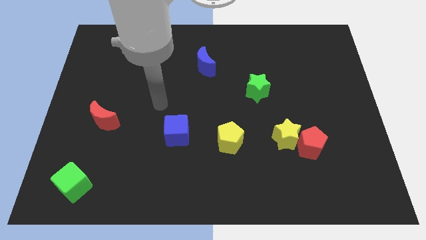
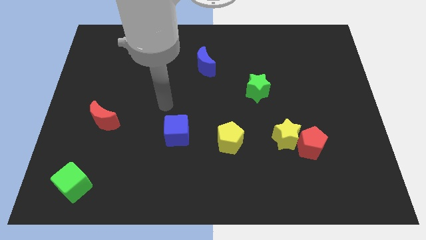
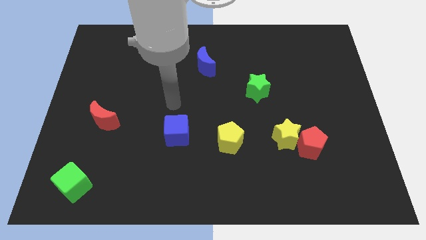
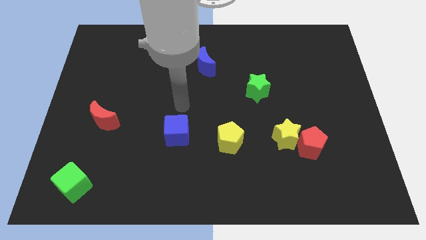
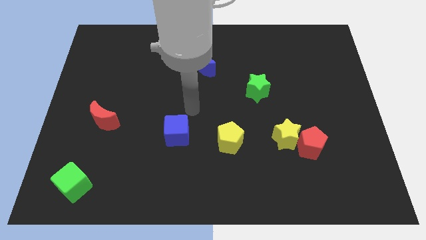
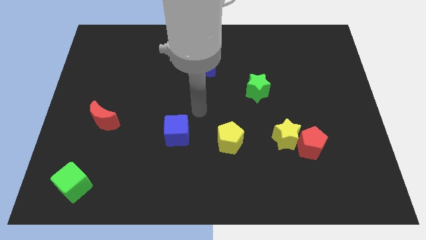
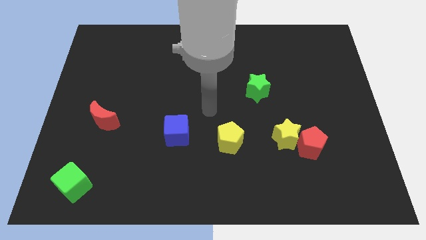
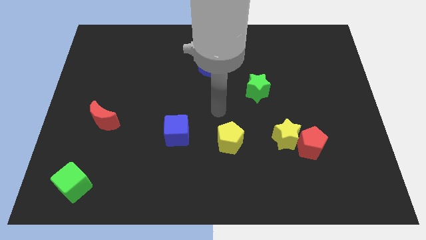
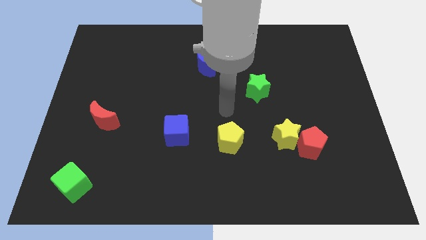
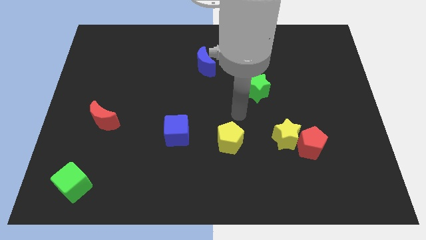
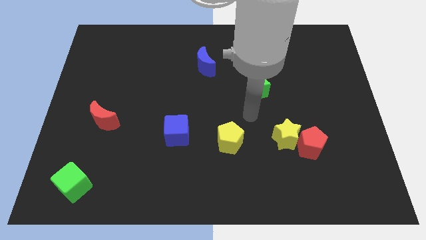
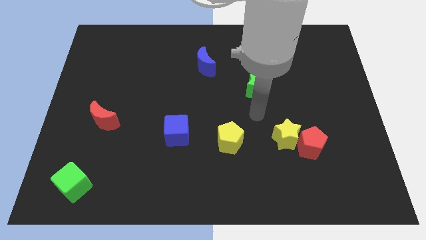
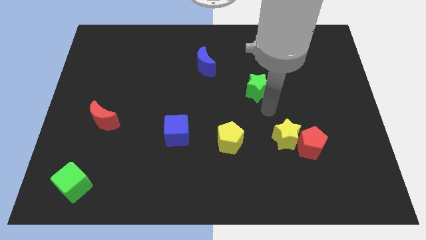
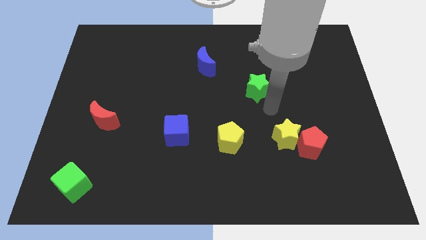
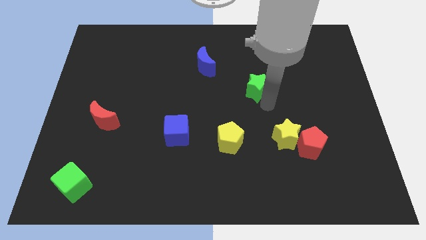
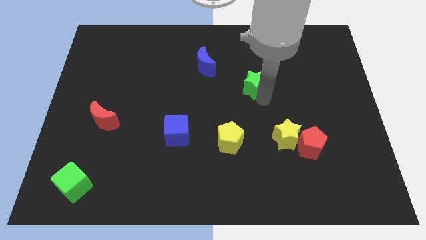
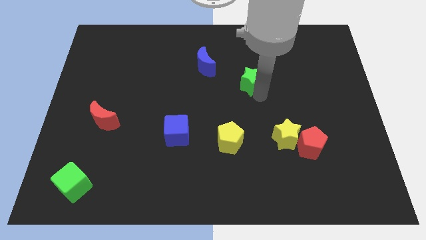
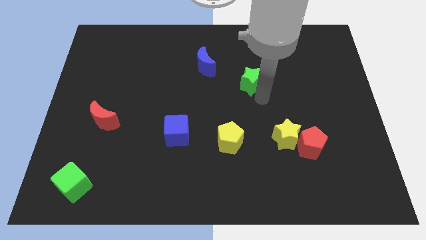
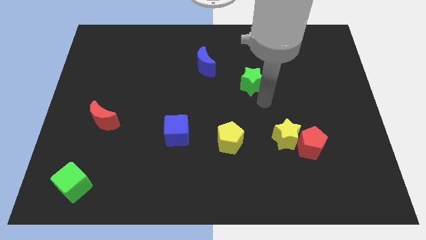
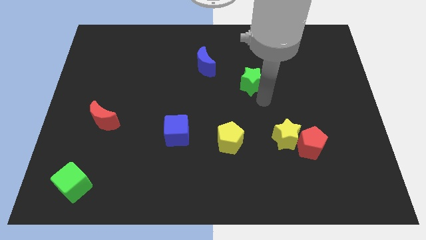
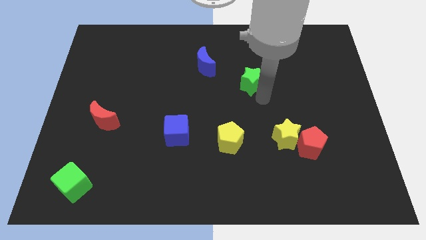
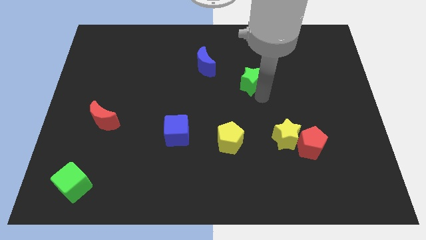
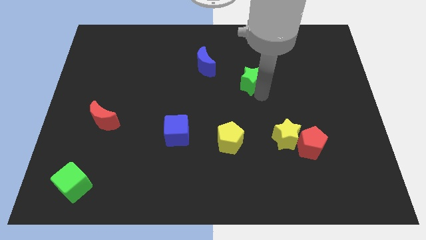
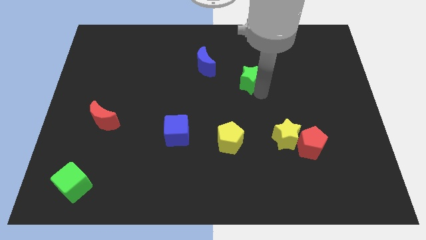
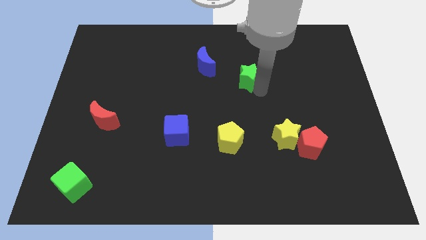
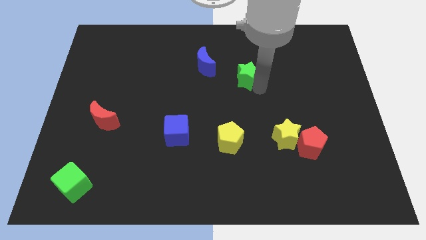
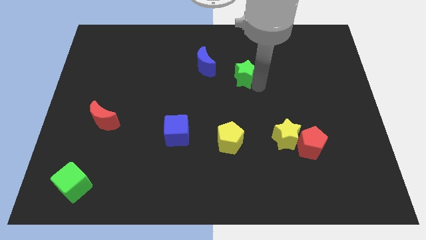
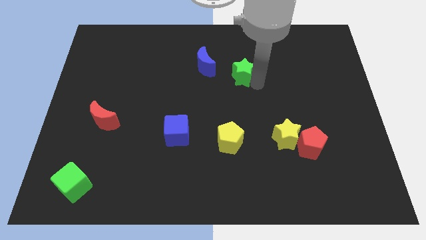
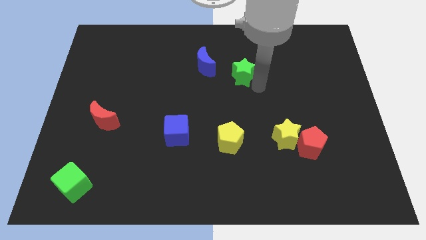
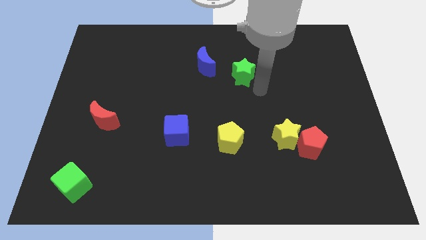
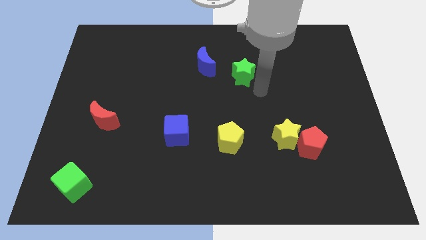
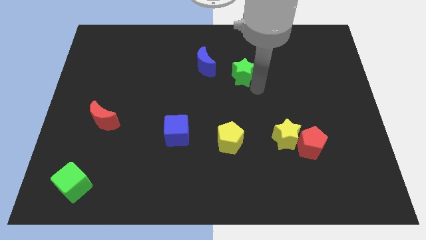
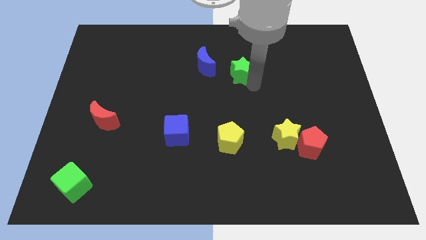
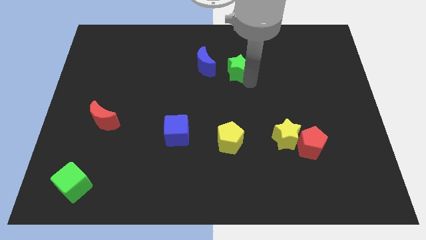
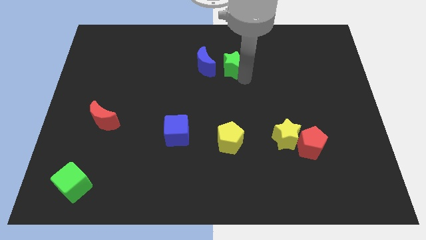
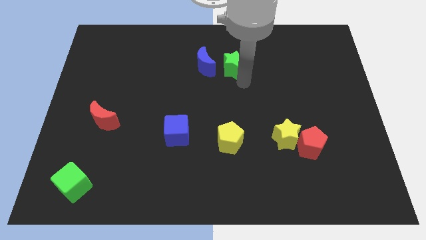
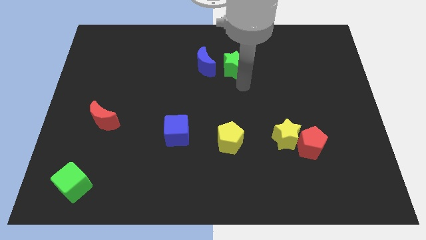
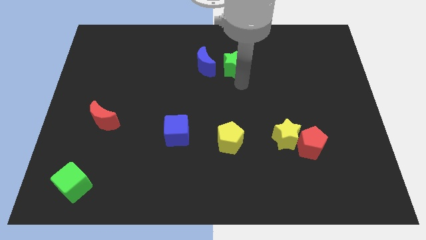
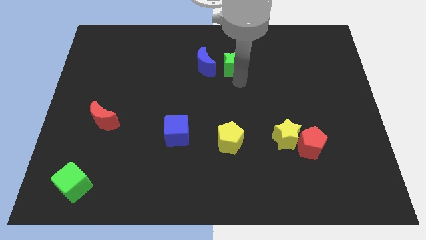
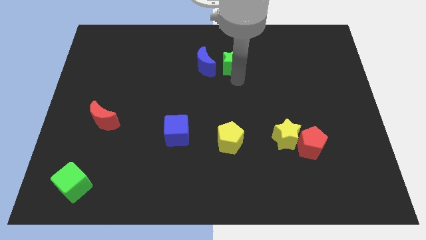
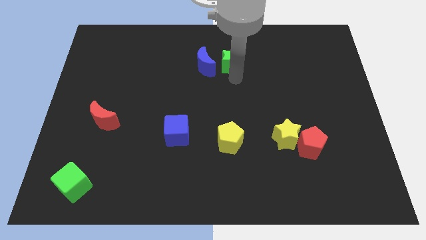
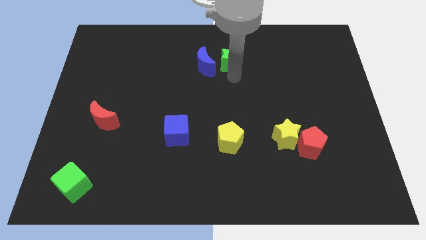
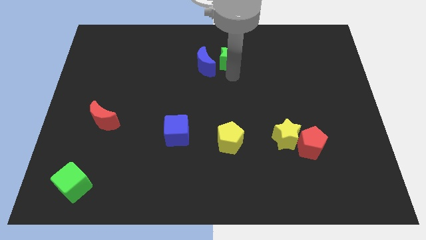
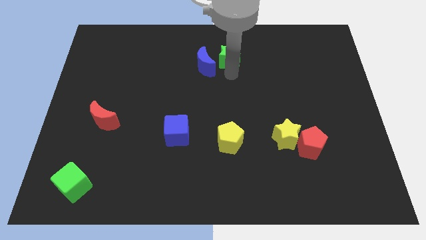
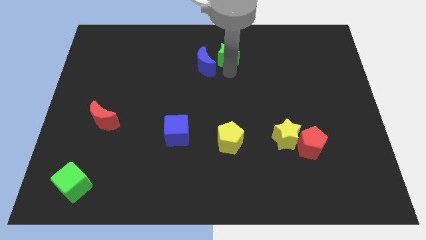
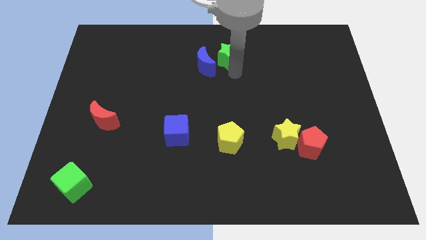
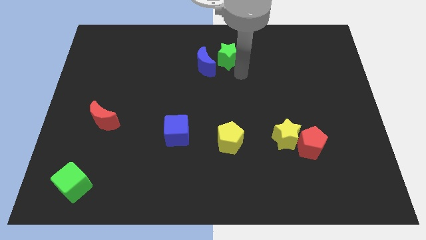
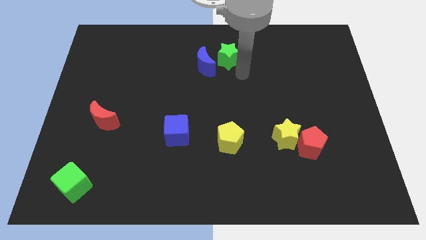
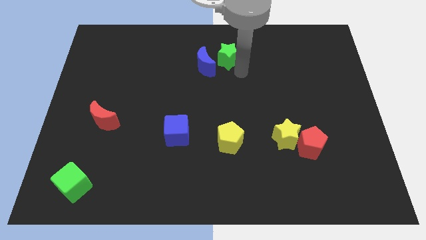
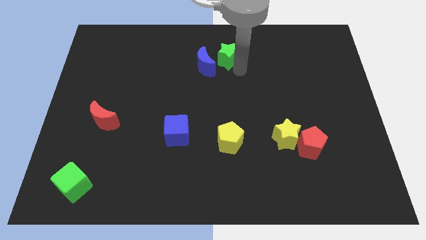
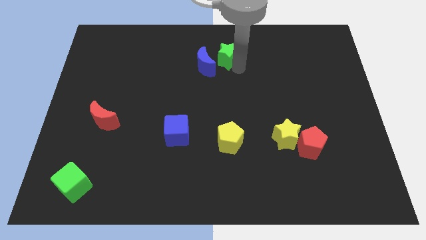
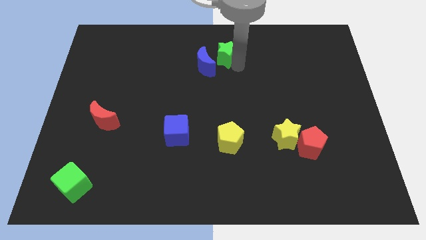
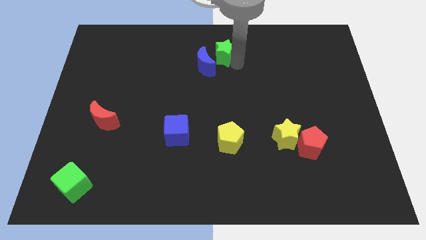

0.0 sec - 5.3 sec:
move the green star to the top side

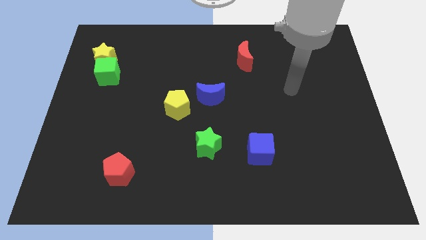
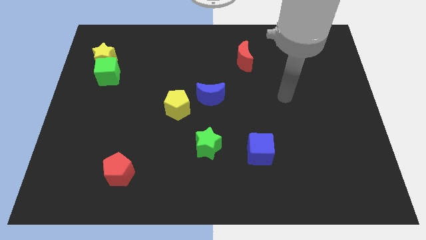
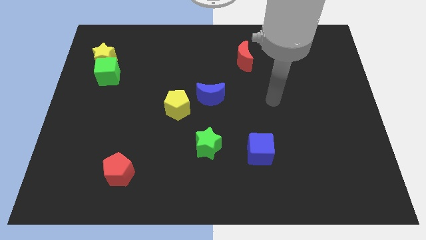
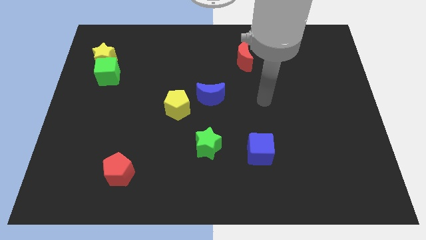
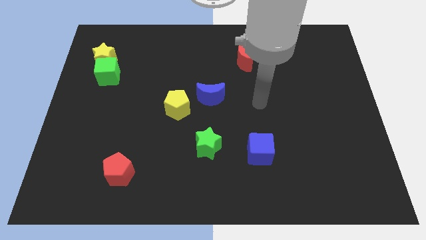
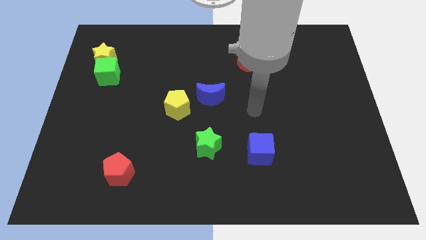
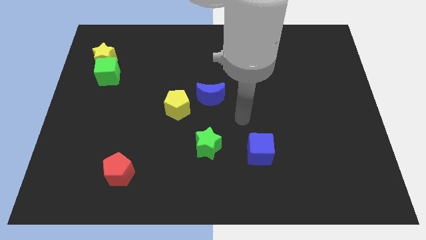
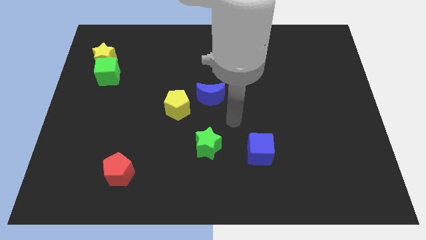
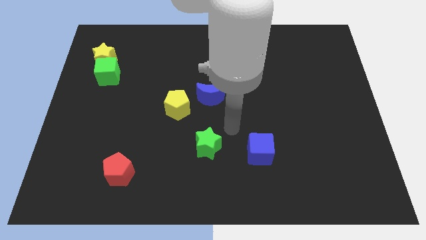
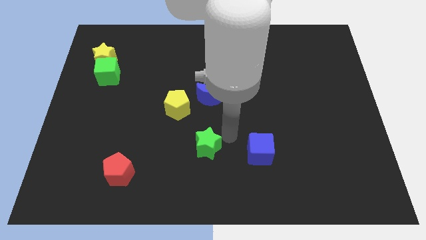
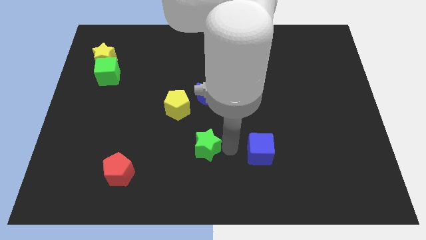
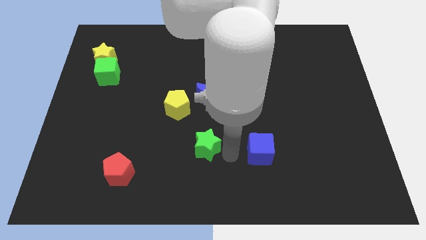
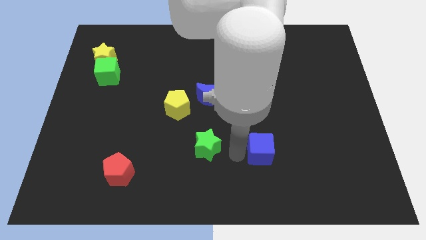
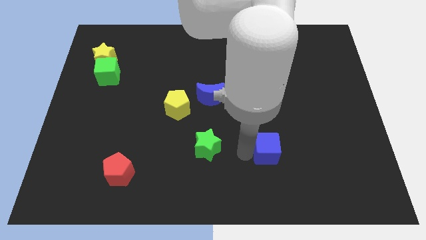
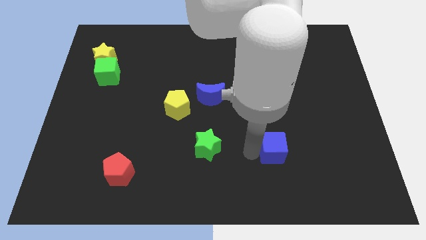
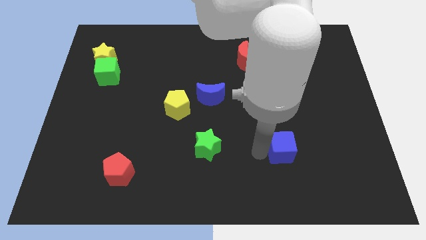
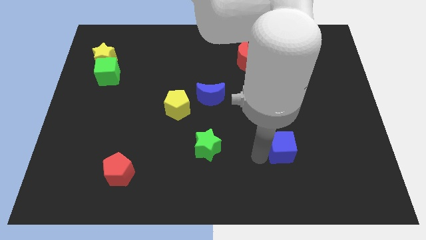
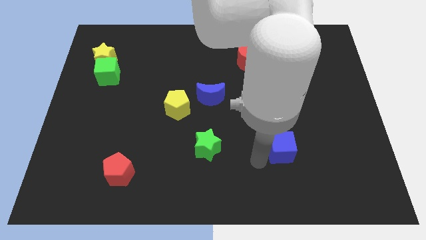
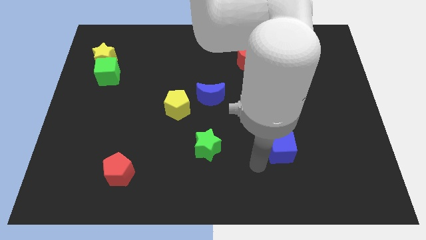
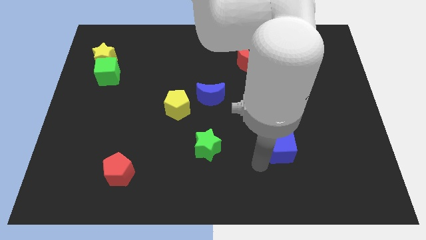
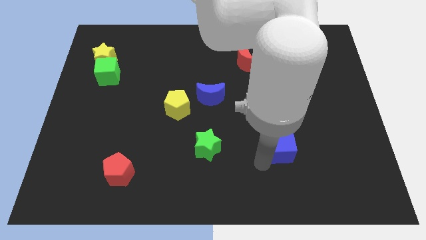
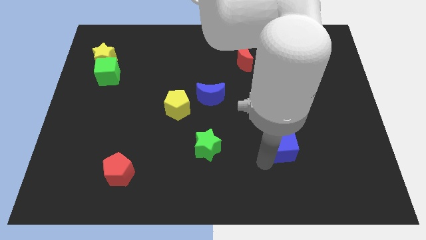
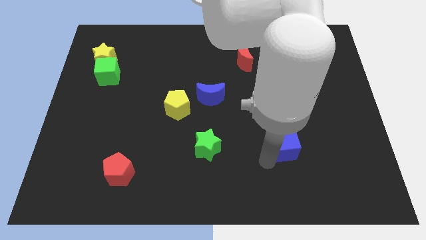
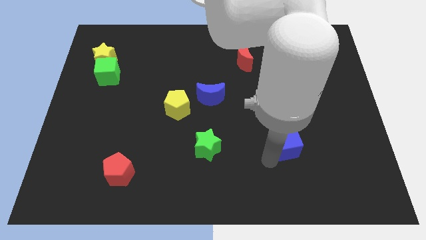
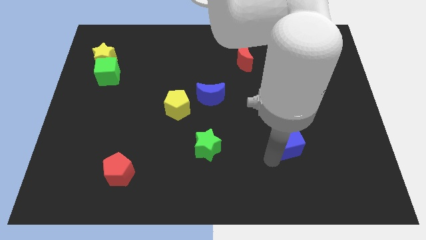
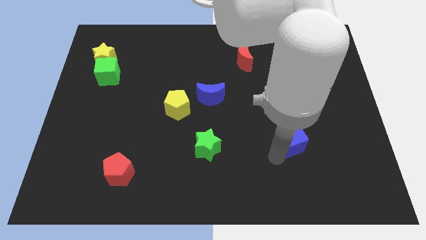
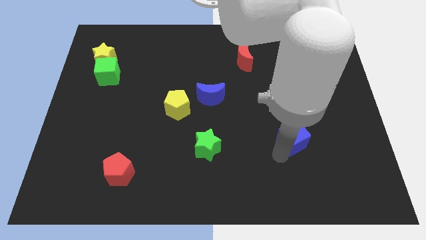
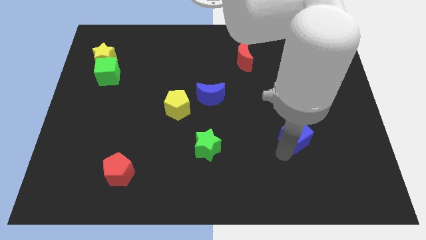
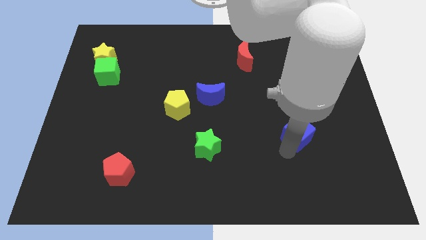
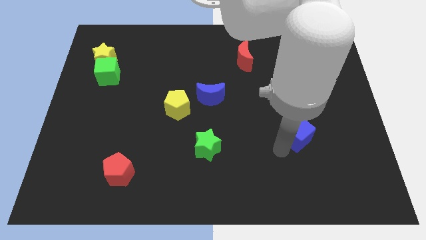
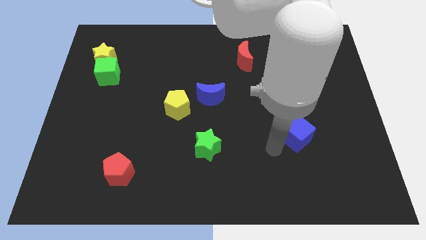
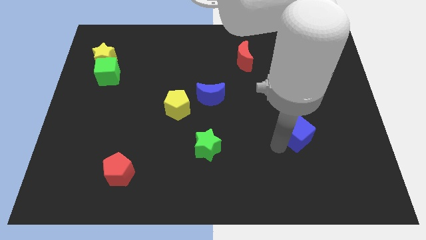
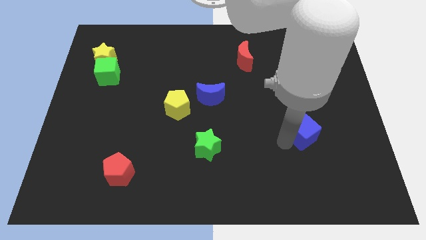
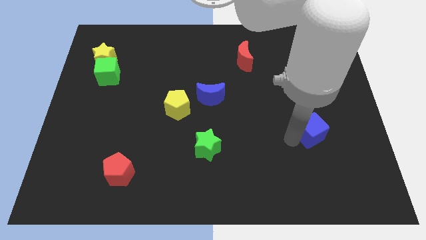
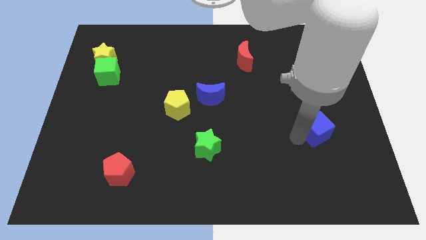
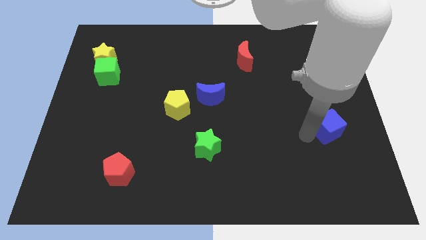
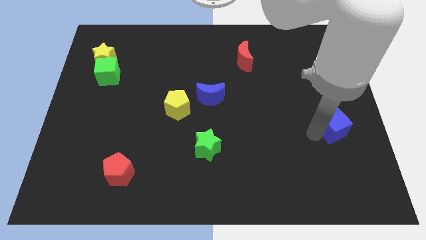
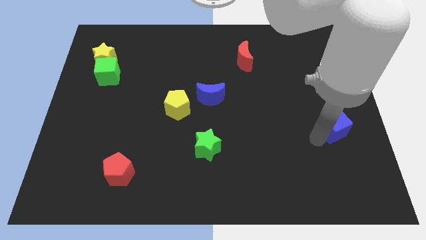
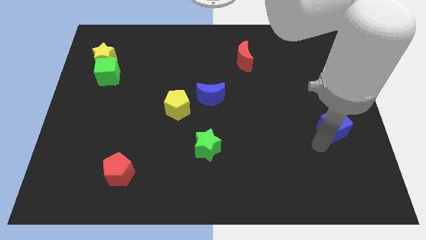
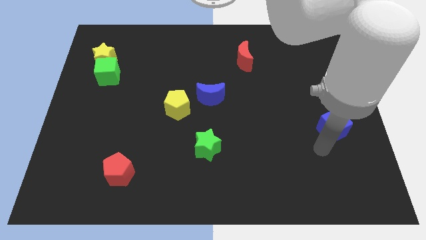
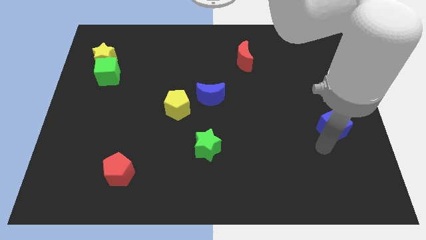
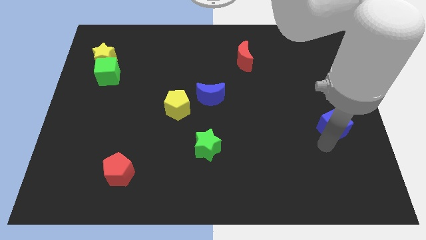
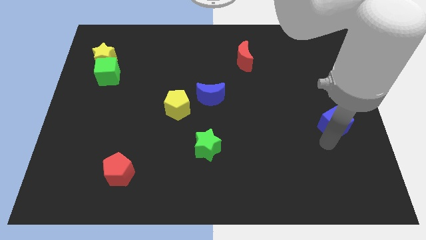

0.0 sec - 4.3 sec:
push the blue cube to the right side of the board
